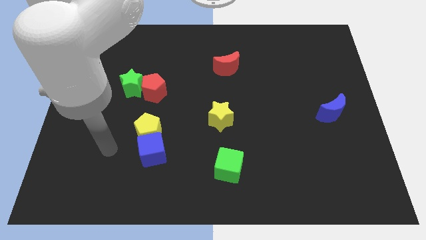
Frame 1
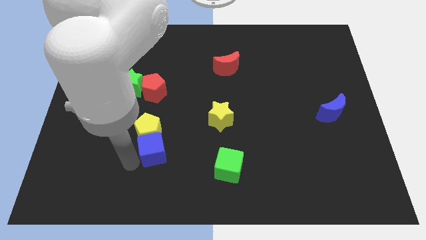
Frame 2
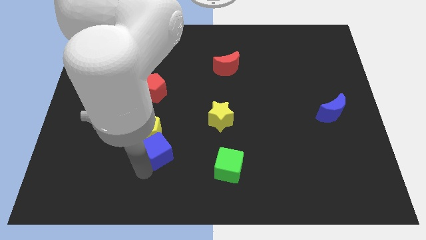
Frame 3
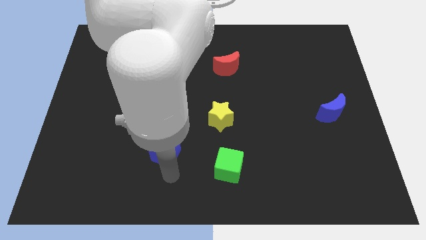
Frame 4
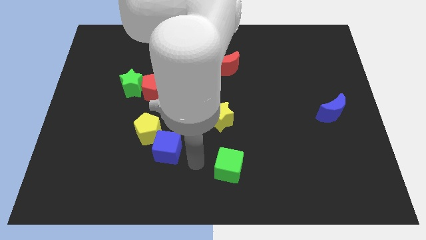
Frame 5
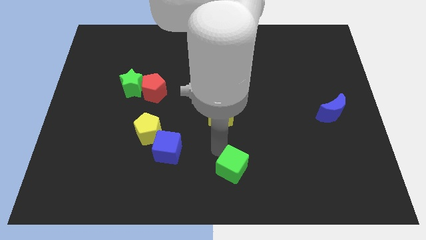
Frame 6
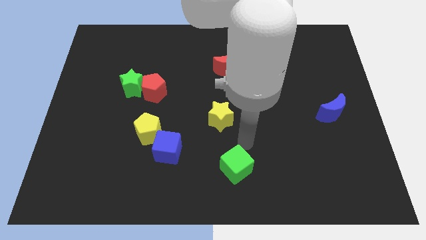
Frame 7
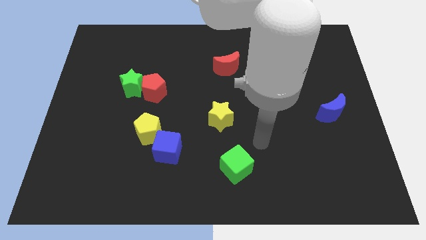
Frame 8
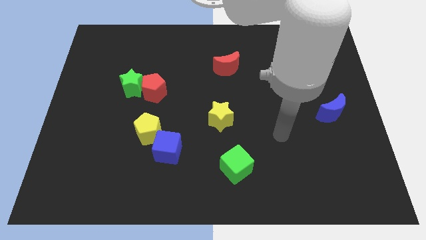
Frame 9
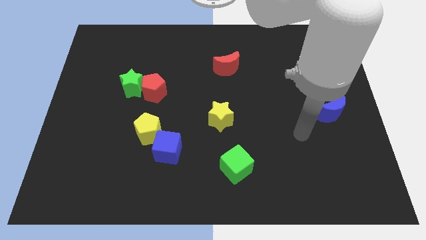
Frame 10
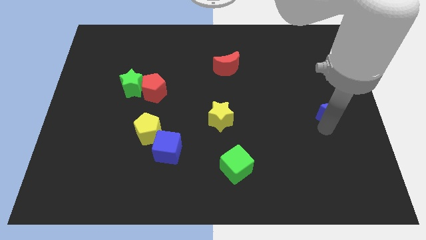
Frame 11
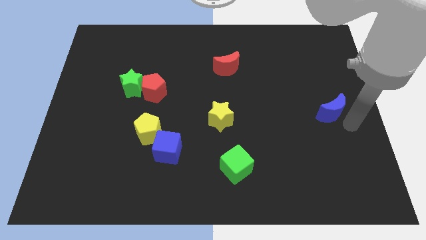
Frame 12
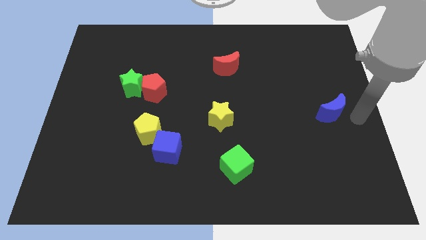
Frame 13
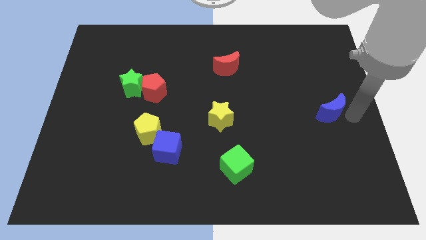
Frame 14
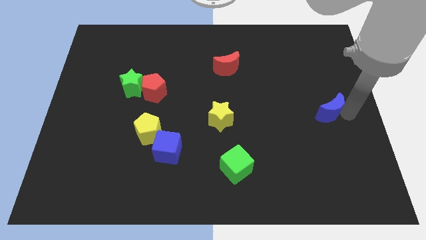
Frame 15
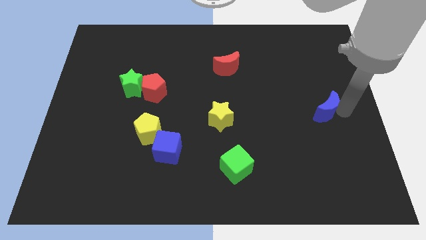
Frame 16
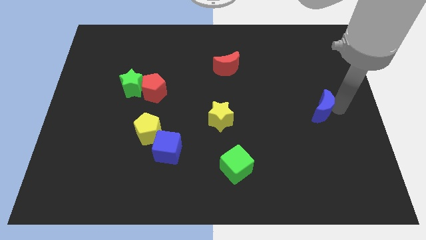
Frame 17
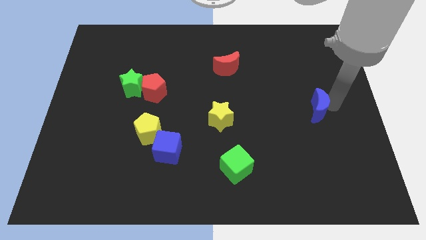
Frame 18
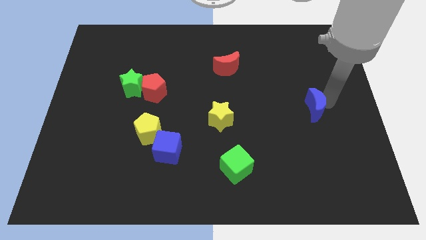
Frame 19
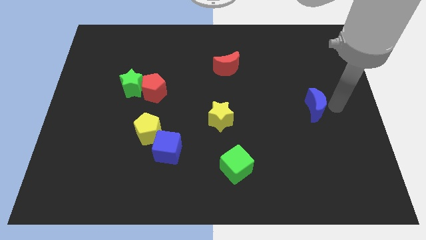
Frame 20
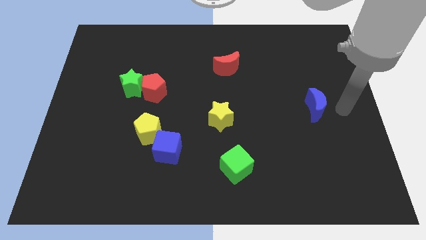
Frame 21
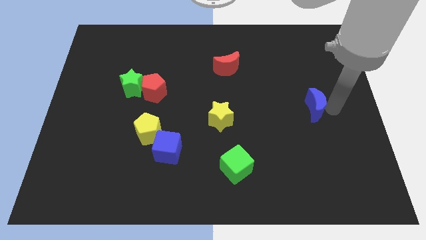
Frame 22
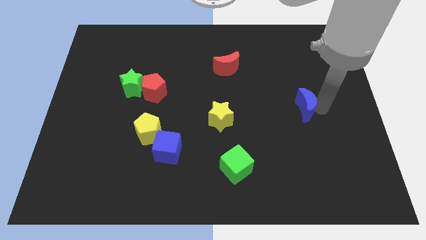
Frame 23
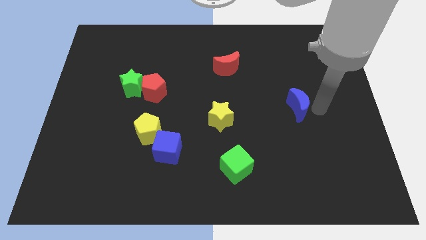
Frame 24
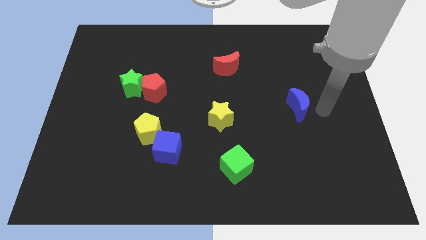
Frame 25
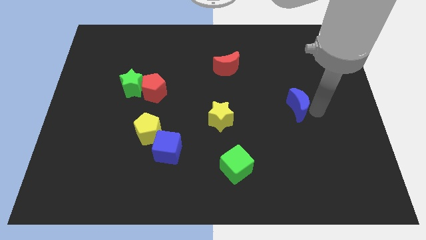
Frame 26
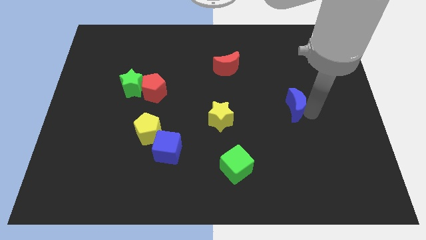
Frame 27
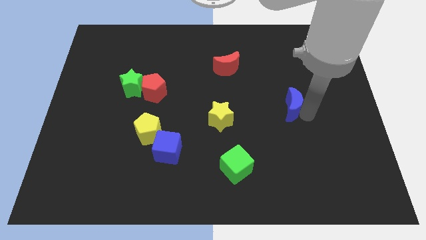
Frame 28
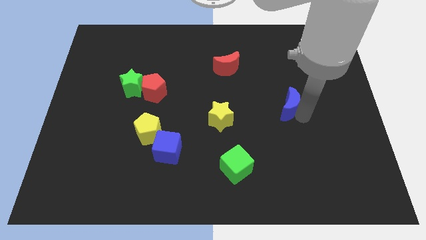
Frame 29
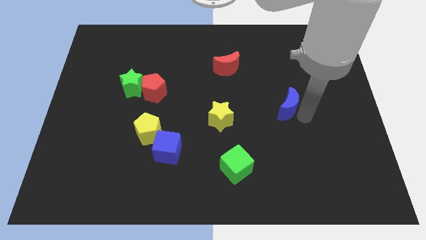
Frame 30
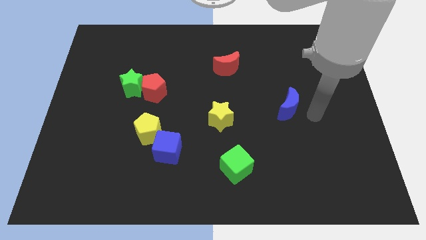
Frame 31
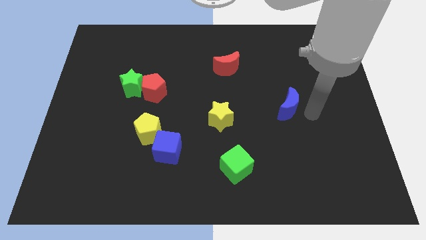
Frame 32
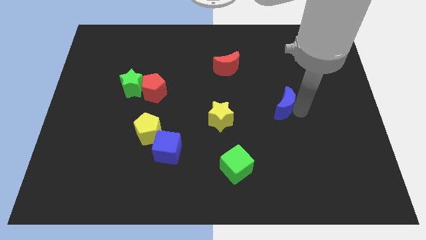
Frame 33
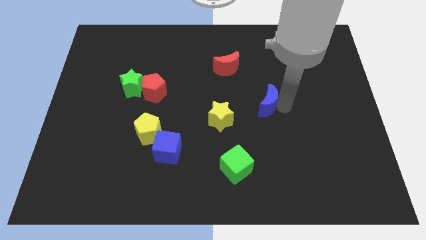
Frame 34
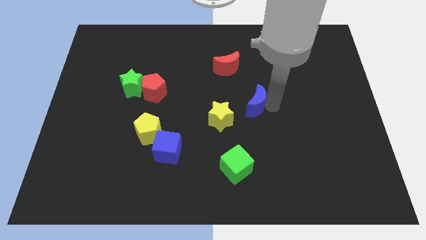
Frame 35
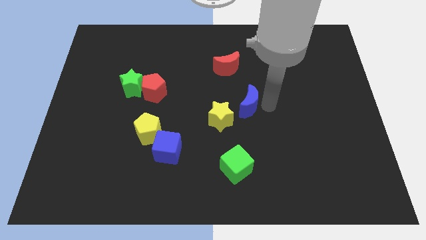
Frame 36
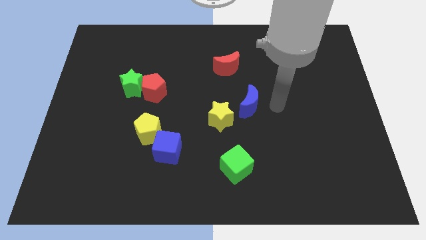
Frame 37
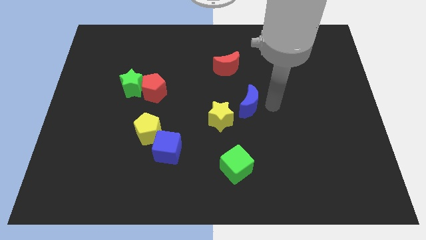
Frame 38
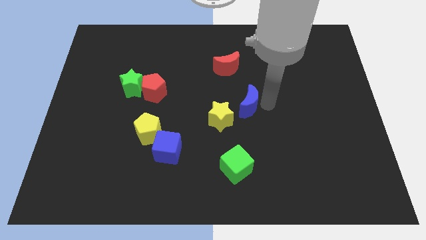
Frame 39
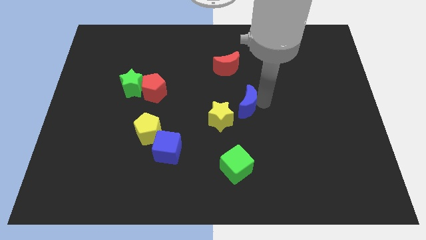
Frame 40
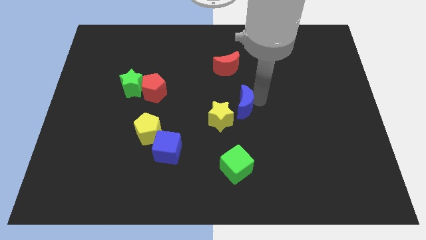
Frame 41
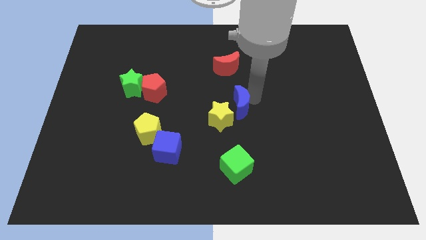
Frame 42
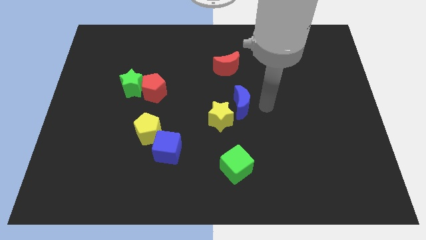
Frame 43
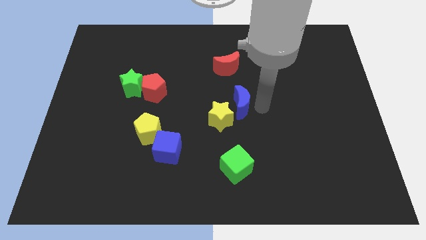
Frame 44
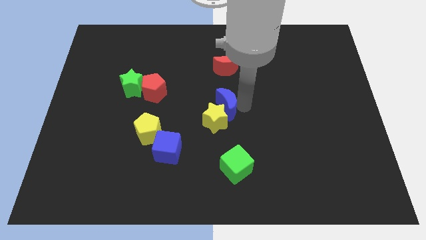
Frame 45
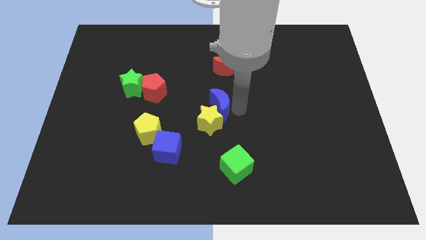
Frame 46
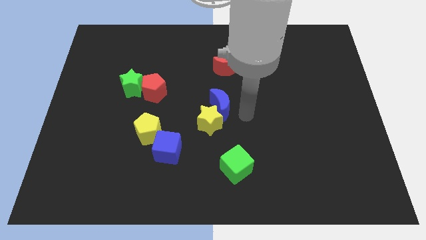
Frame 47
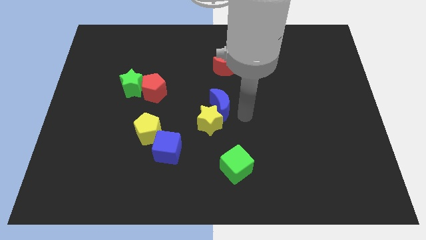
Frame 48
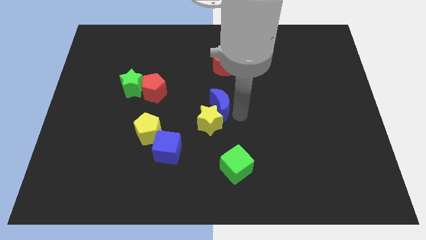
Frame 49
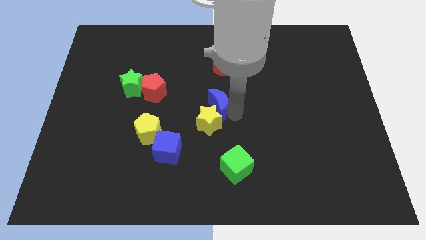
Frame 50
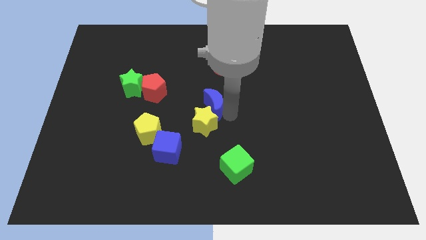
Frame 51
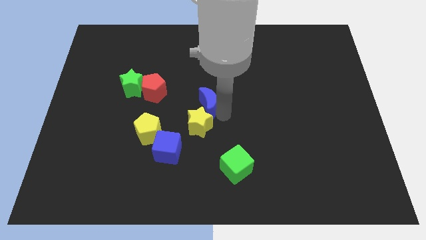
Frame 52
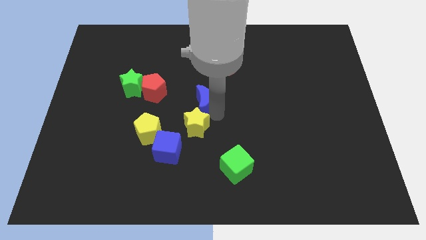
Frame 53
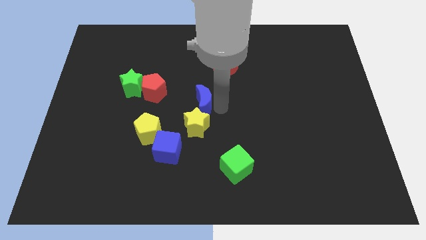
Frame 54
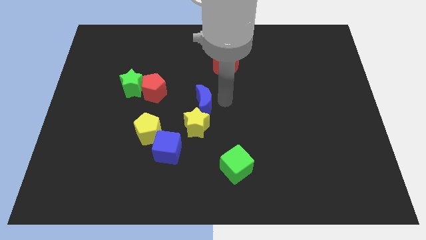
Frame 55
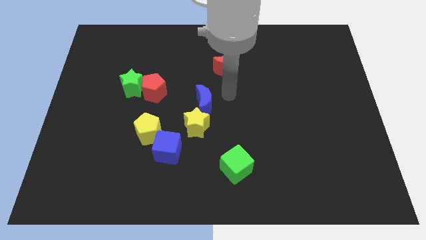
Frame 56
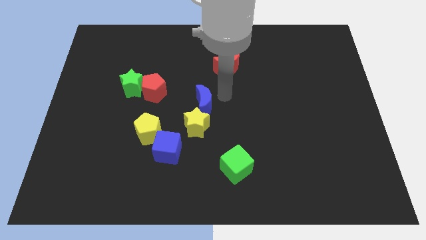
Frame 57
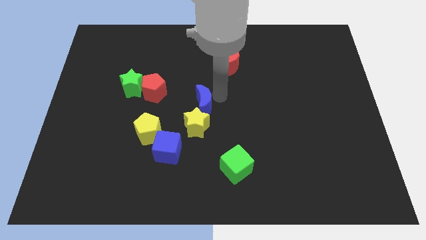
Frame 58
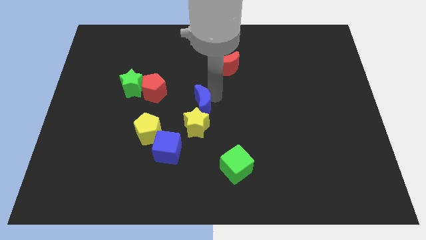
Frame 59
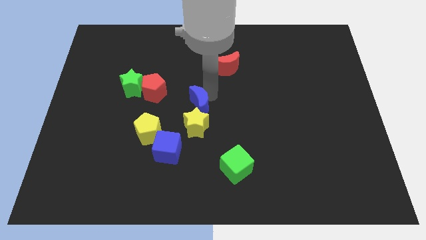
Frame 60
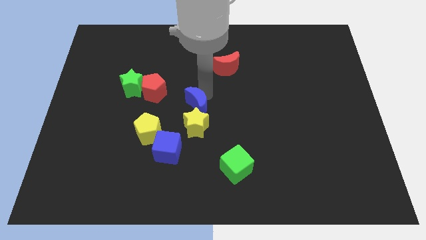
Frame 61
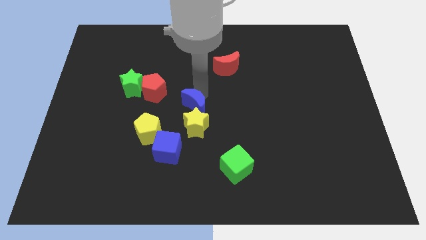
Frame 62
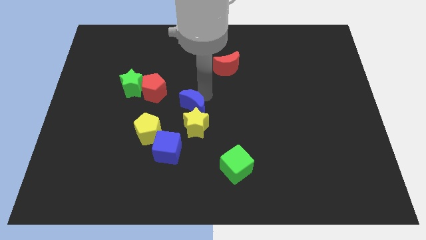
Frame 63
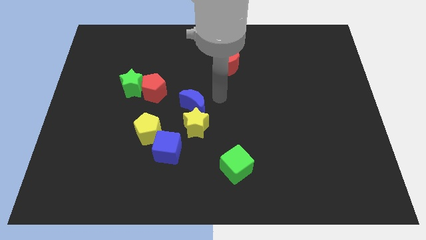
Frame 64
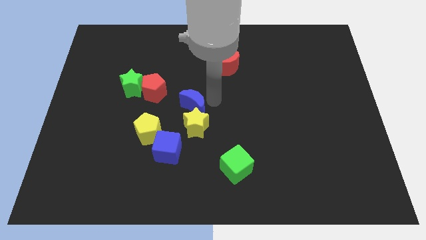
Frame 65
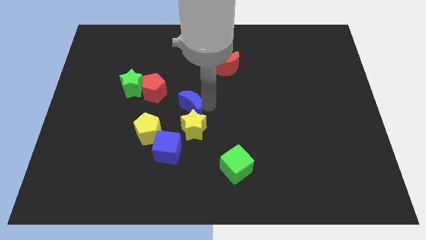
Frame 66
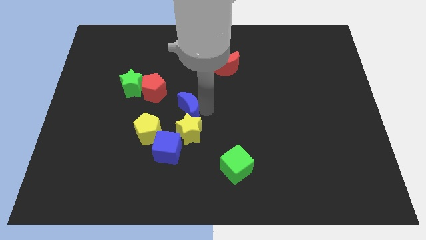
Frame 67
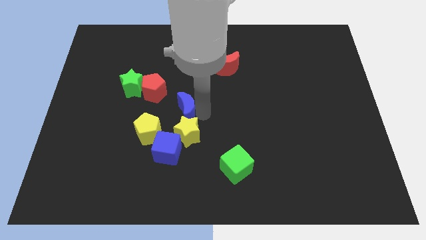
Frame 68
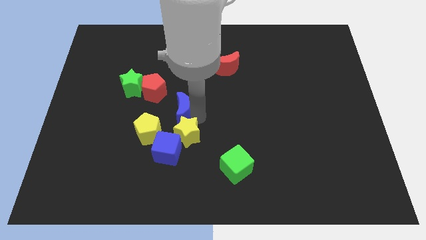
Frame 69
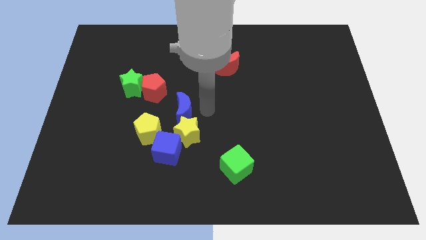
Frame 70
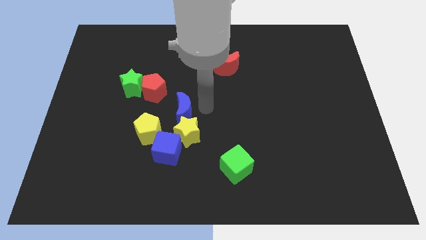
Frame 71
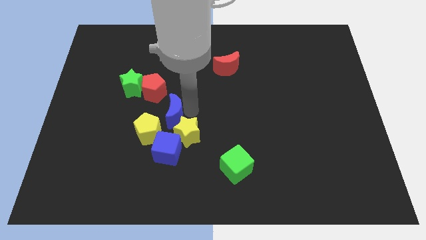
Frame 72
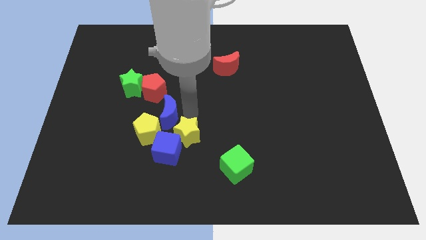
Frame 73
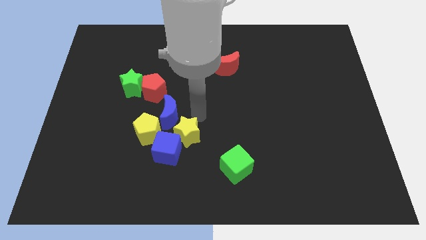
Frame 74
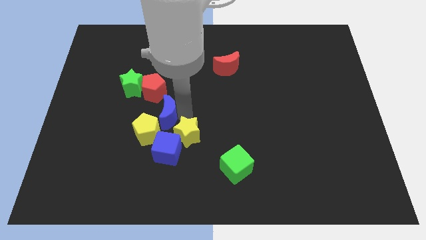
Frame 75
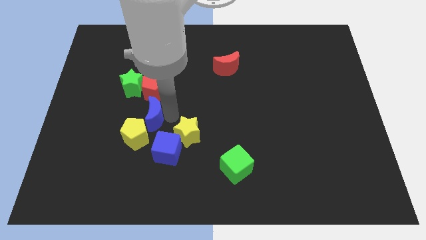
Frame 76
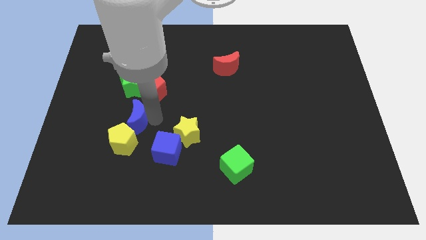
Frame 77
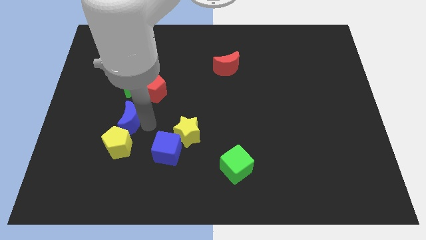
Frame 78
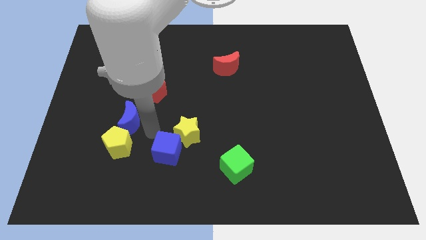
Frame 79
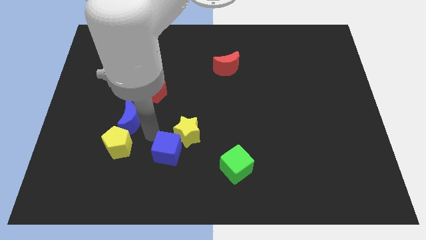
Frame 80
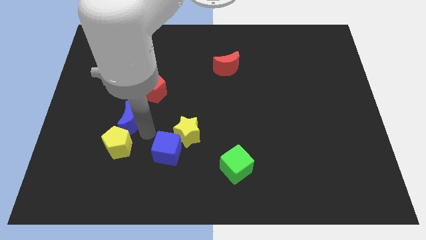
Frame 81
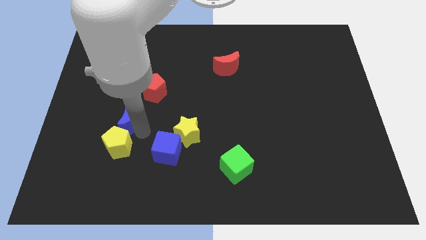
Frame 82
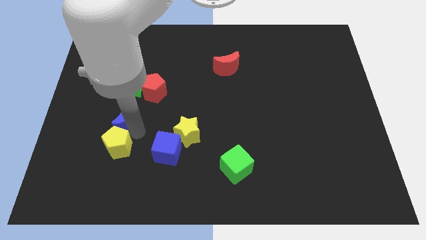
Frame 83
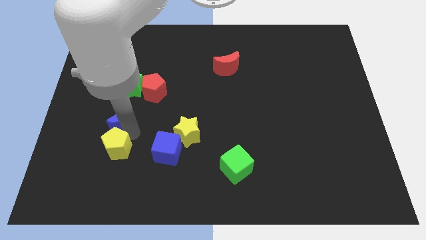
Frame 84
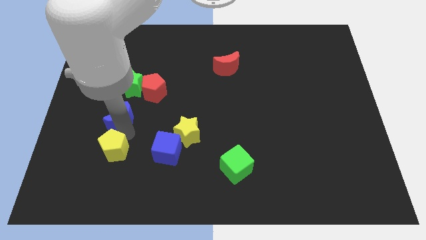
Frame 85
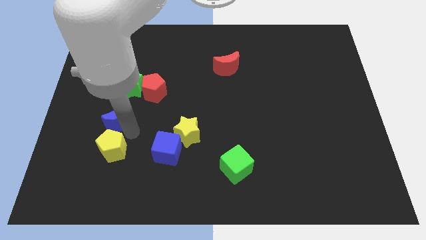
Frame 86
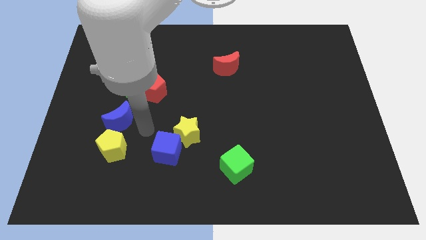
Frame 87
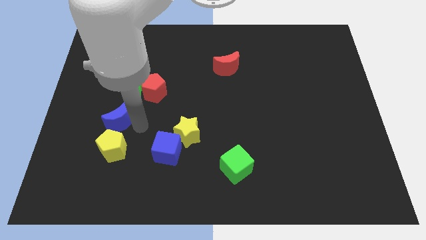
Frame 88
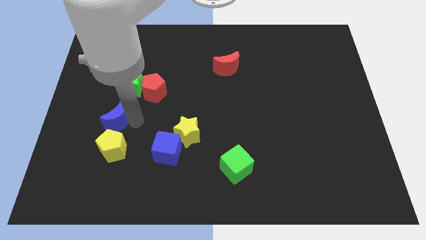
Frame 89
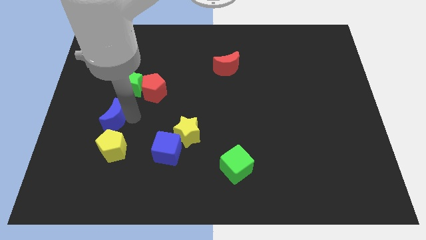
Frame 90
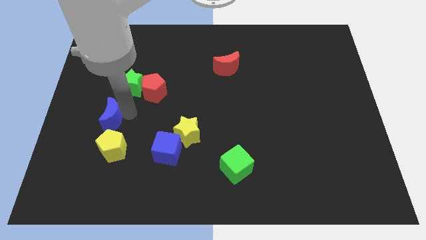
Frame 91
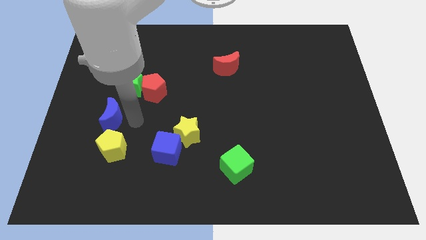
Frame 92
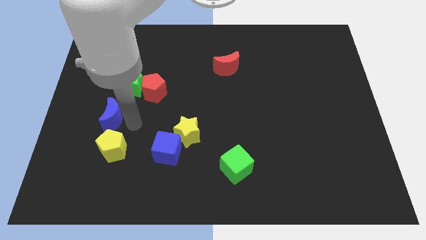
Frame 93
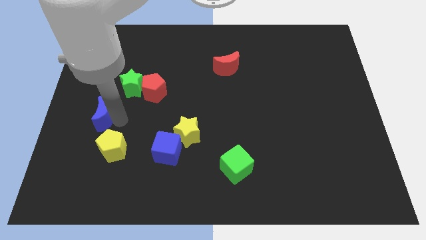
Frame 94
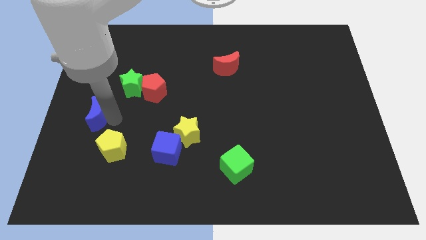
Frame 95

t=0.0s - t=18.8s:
put the blue moon to the center left
